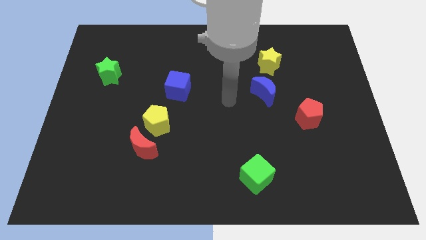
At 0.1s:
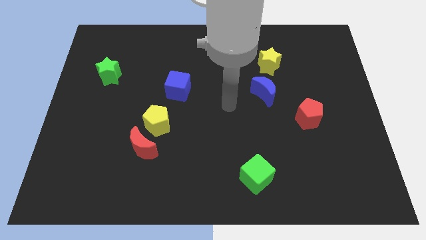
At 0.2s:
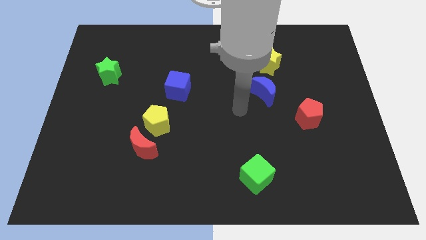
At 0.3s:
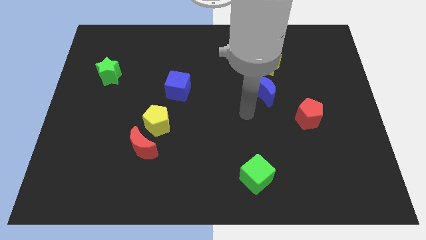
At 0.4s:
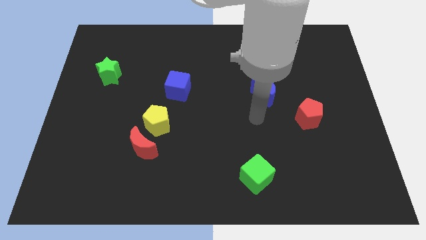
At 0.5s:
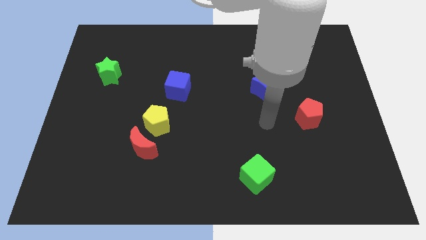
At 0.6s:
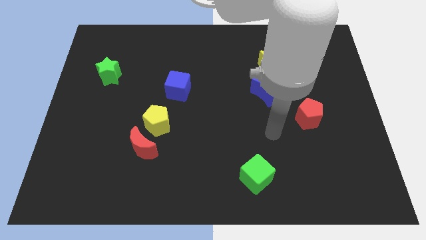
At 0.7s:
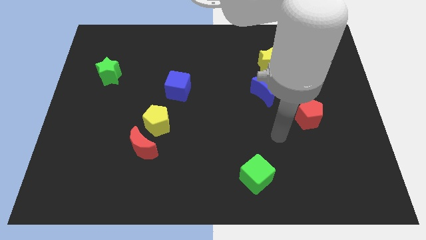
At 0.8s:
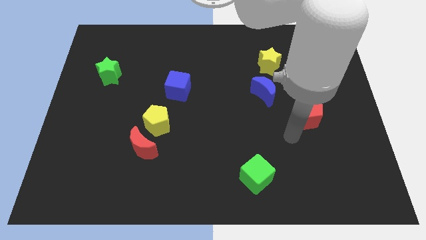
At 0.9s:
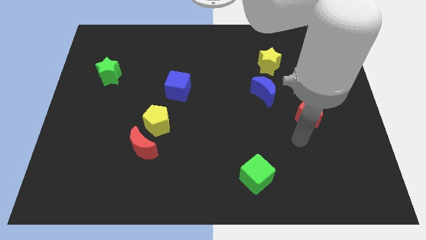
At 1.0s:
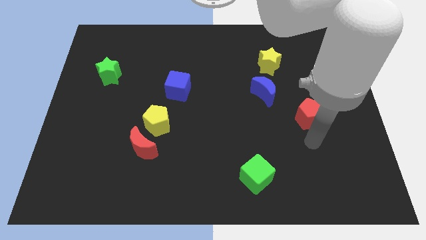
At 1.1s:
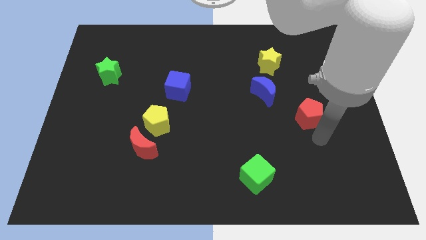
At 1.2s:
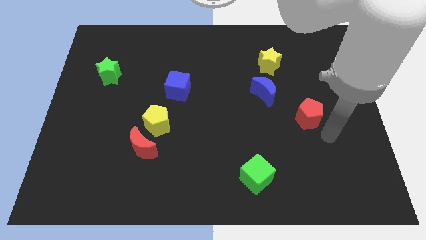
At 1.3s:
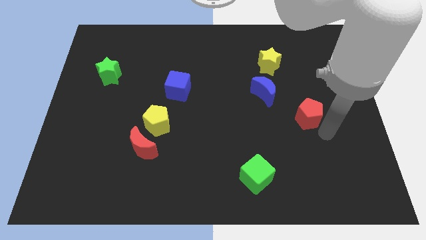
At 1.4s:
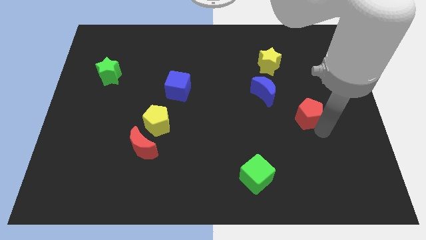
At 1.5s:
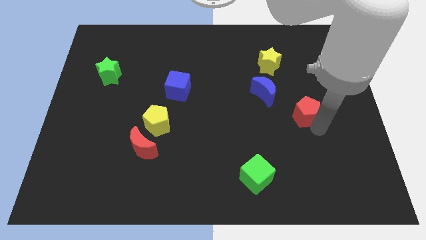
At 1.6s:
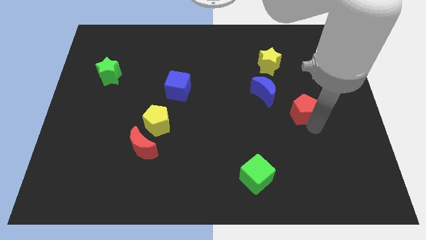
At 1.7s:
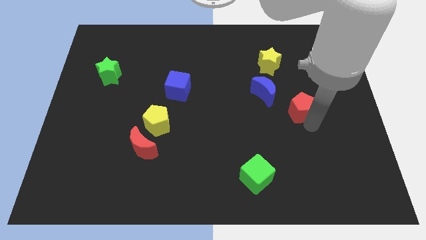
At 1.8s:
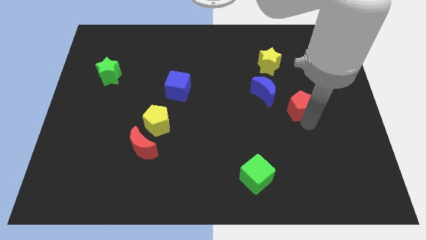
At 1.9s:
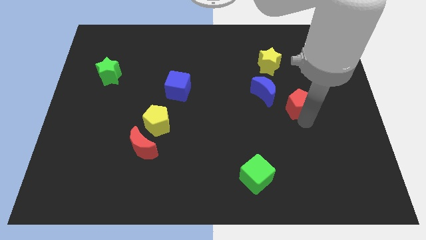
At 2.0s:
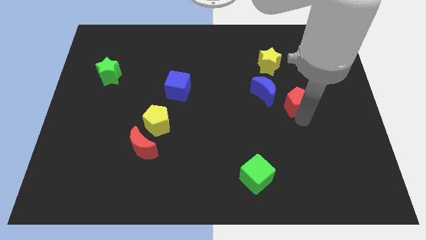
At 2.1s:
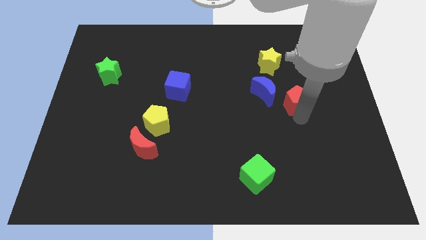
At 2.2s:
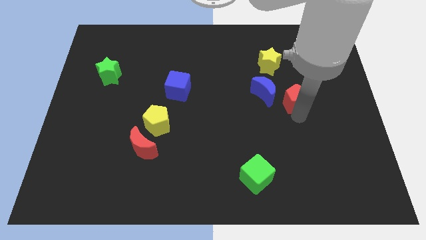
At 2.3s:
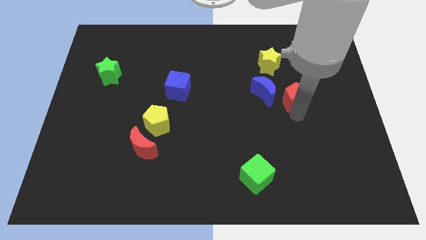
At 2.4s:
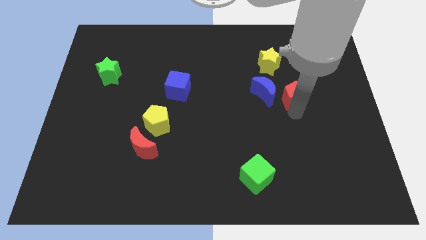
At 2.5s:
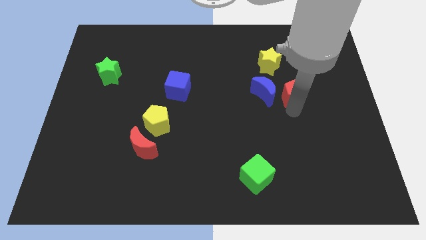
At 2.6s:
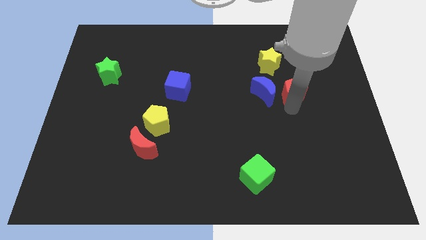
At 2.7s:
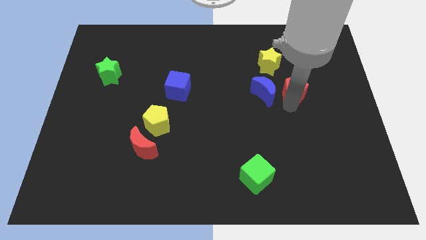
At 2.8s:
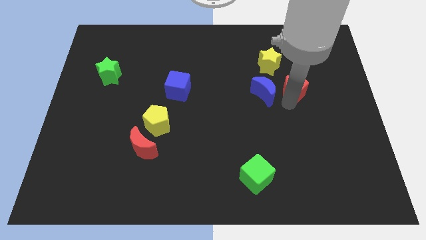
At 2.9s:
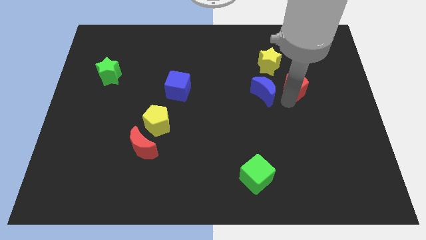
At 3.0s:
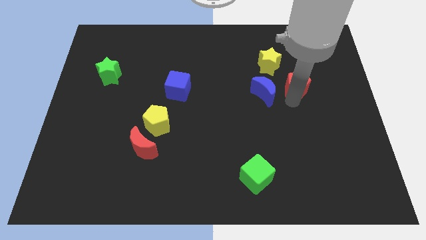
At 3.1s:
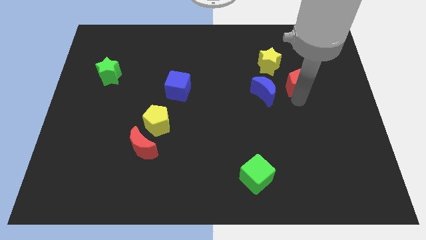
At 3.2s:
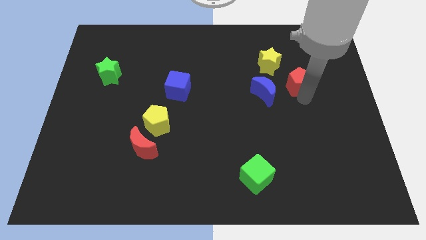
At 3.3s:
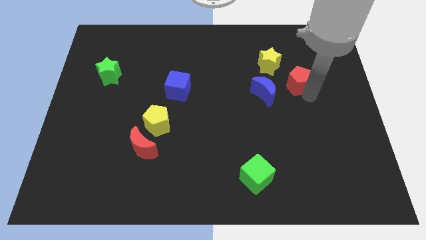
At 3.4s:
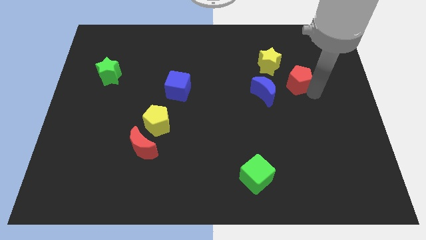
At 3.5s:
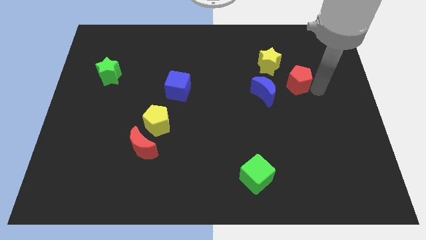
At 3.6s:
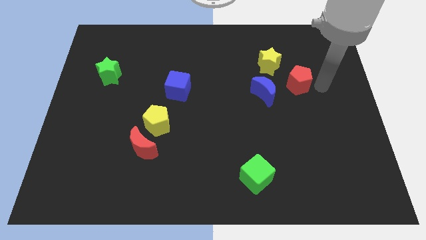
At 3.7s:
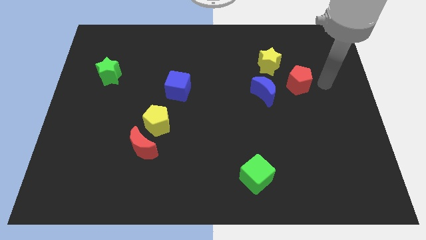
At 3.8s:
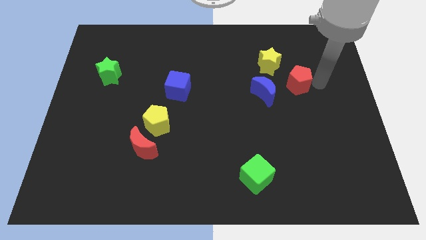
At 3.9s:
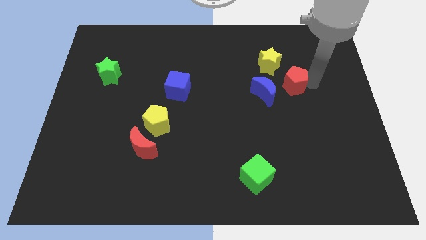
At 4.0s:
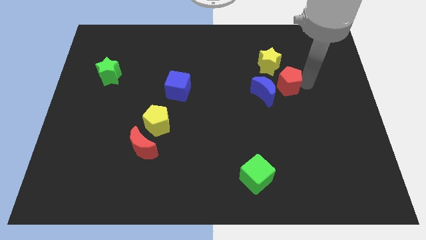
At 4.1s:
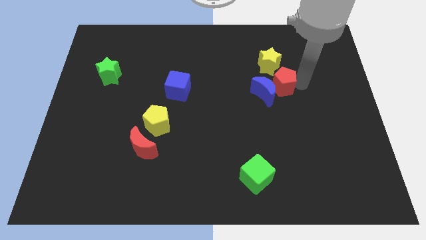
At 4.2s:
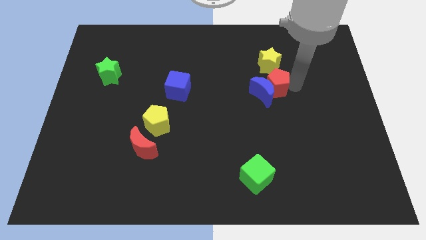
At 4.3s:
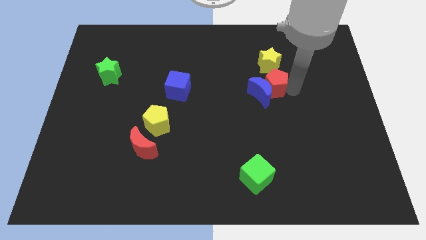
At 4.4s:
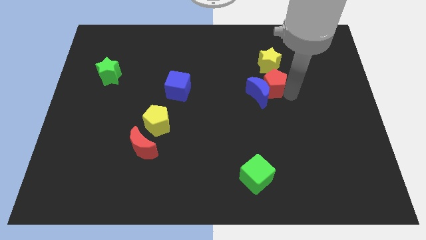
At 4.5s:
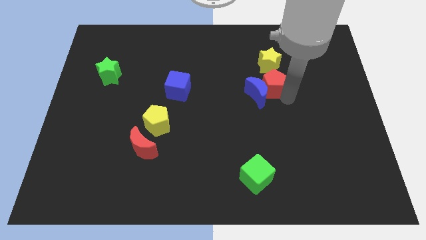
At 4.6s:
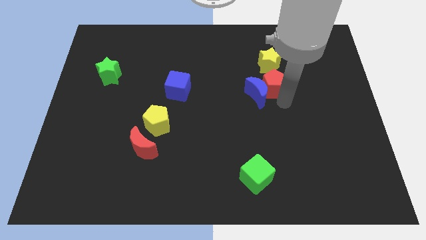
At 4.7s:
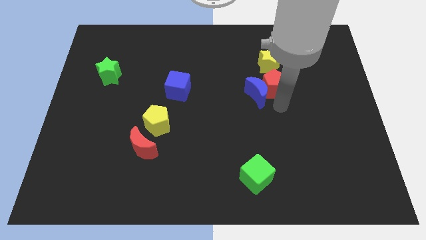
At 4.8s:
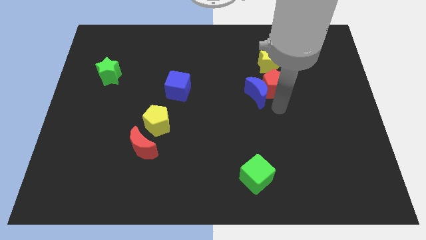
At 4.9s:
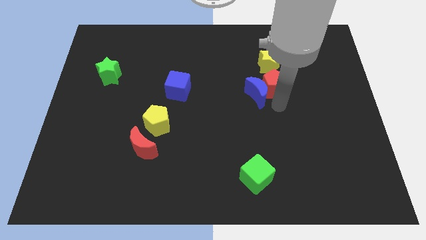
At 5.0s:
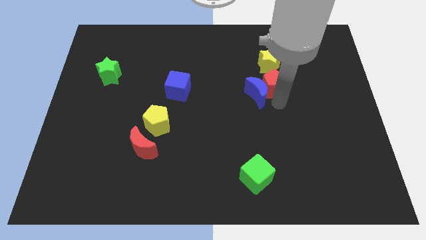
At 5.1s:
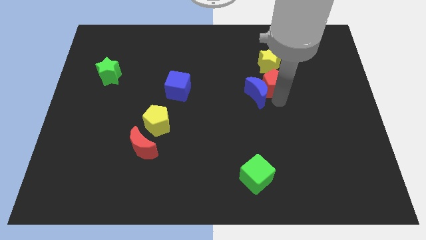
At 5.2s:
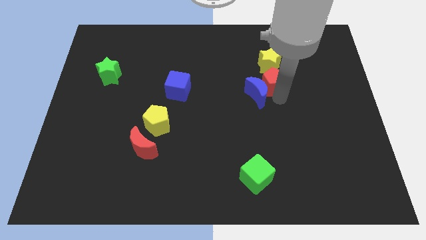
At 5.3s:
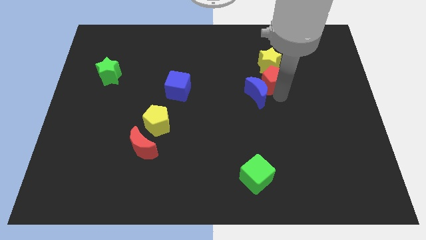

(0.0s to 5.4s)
push the red pentagon next to the yellow star

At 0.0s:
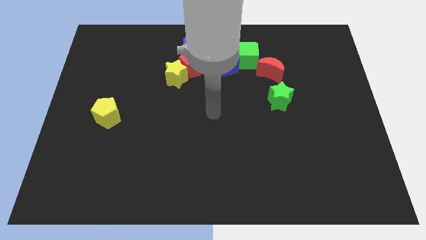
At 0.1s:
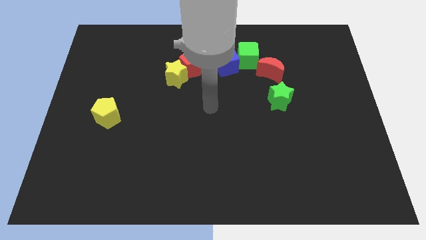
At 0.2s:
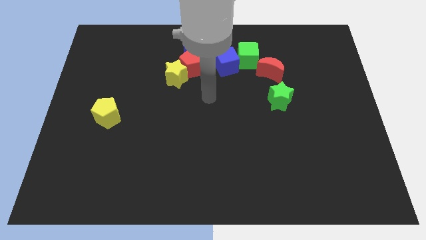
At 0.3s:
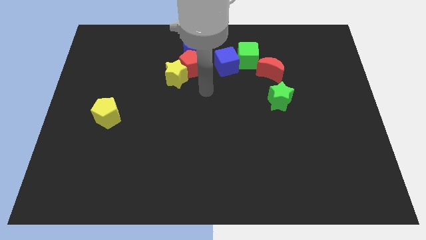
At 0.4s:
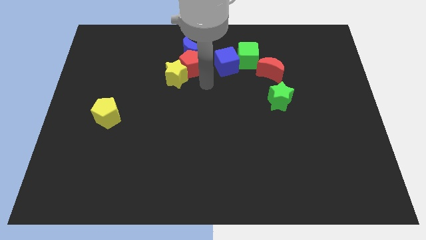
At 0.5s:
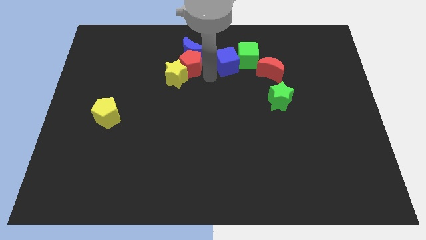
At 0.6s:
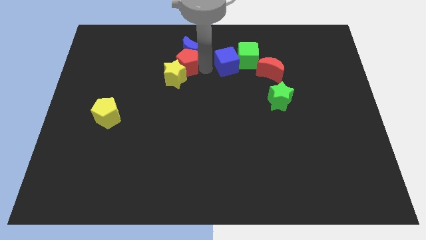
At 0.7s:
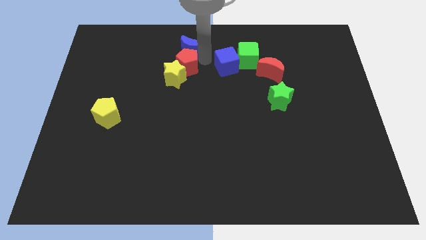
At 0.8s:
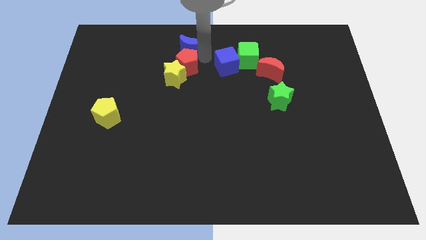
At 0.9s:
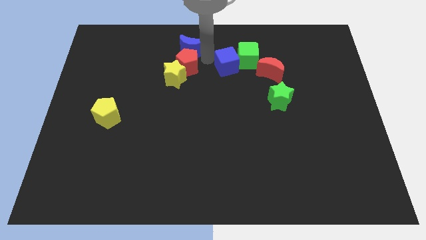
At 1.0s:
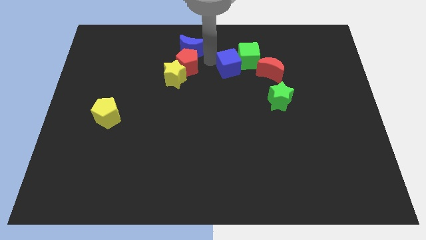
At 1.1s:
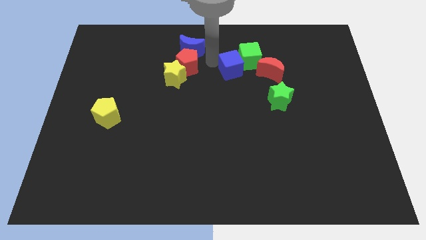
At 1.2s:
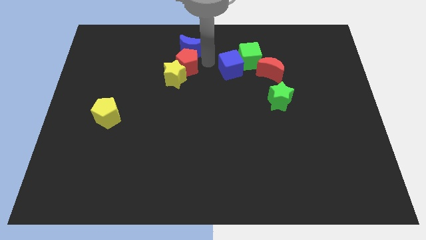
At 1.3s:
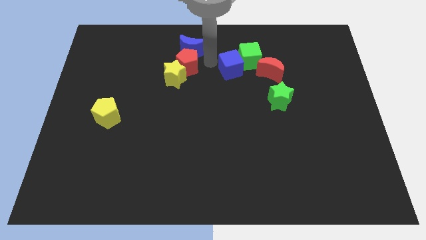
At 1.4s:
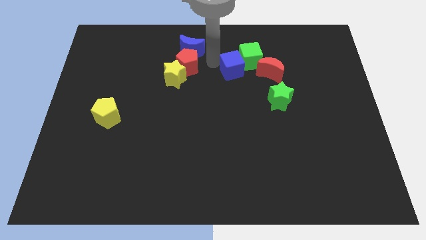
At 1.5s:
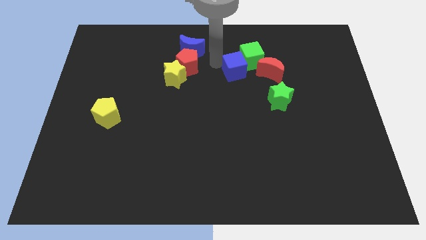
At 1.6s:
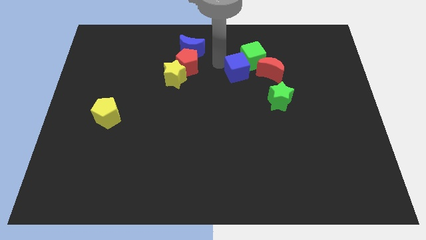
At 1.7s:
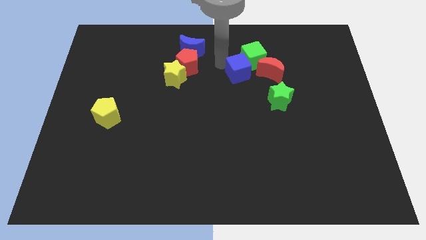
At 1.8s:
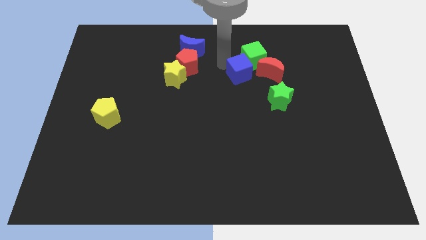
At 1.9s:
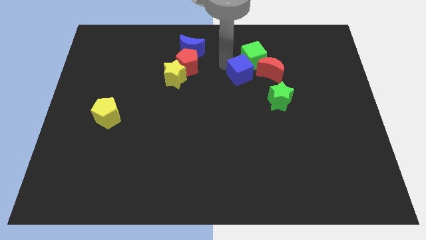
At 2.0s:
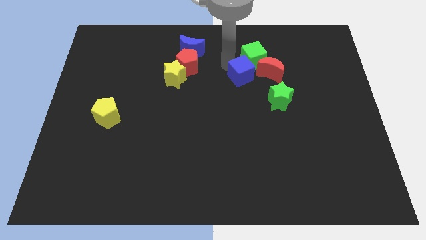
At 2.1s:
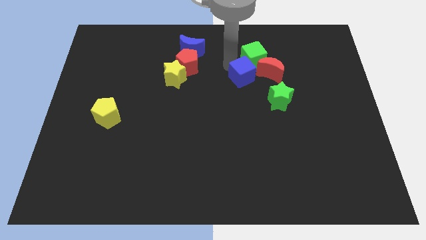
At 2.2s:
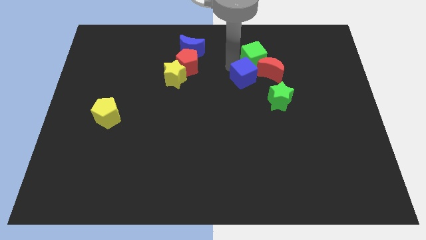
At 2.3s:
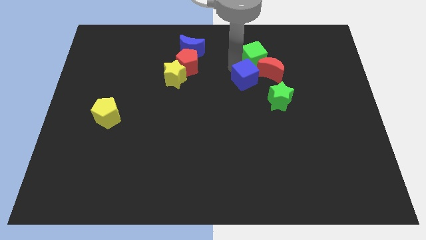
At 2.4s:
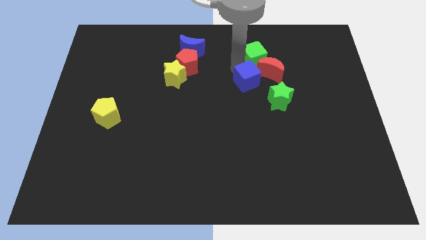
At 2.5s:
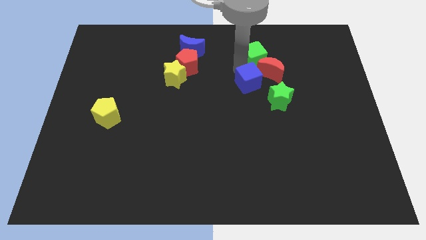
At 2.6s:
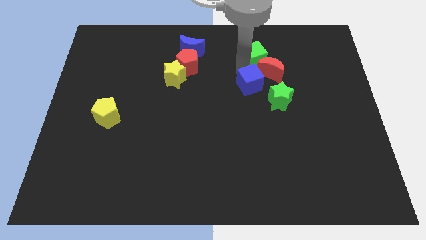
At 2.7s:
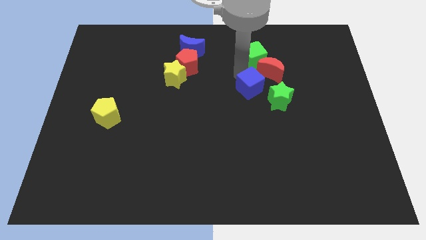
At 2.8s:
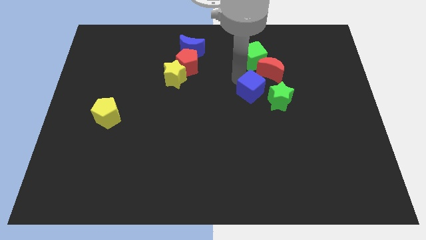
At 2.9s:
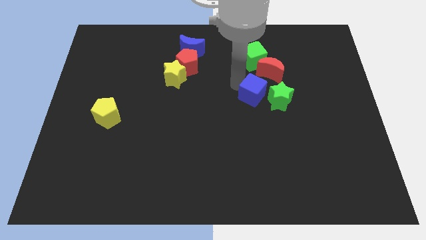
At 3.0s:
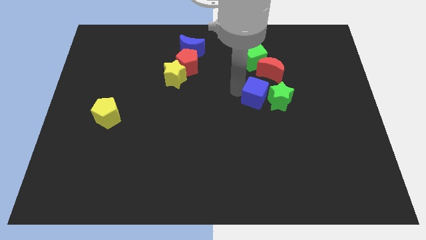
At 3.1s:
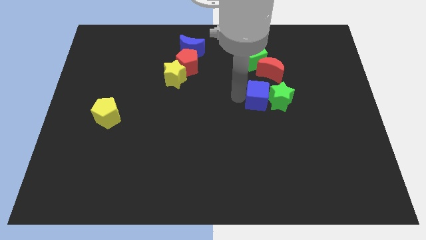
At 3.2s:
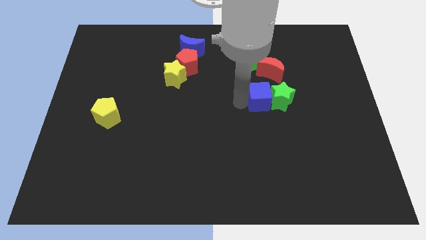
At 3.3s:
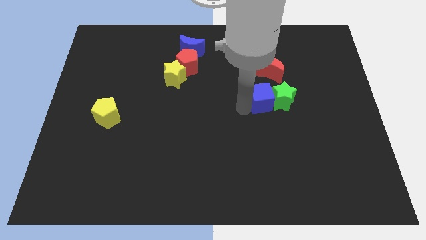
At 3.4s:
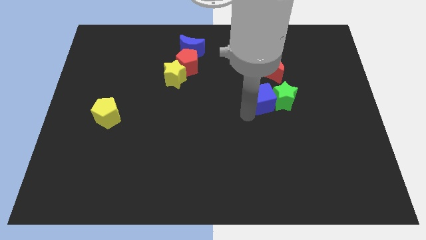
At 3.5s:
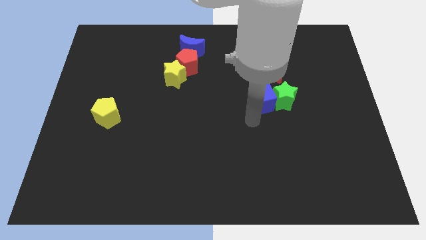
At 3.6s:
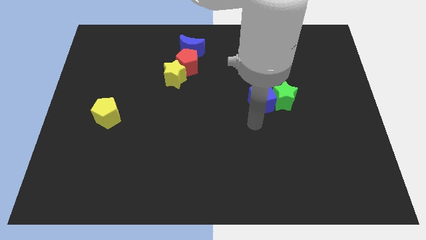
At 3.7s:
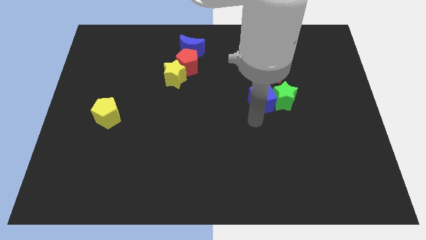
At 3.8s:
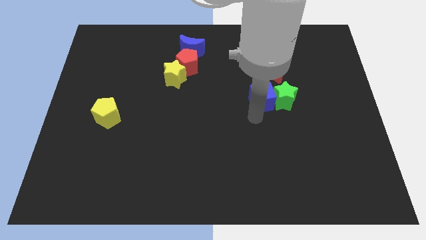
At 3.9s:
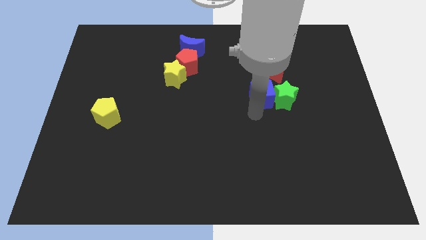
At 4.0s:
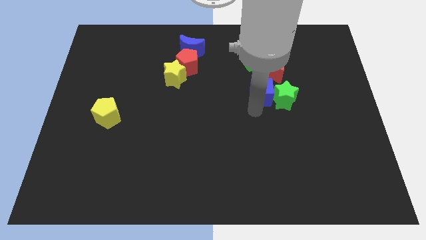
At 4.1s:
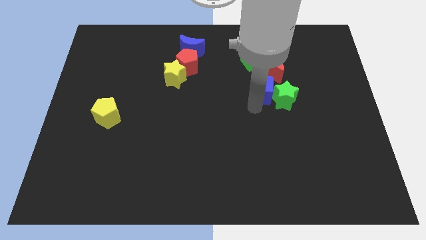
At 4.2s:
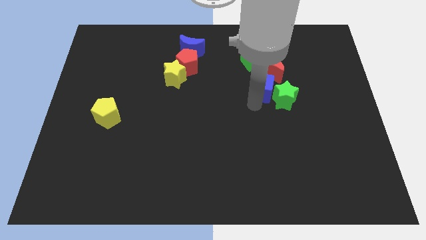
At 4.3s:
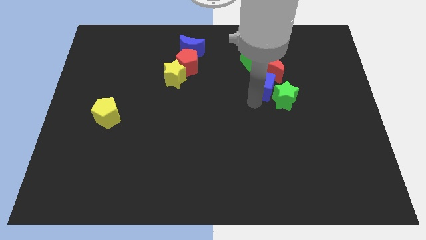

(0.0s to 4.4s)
put the blue cube next to the red moon
